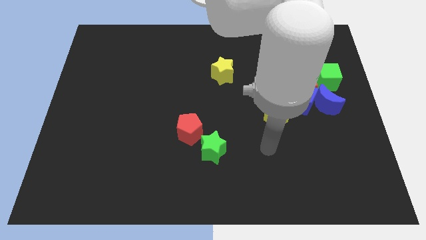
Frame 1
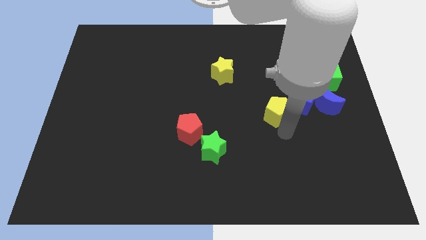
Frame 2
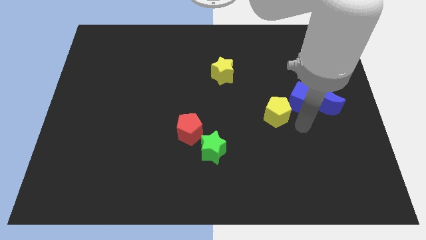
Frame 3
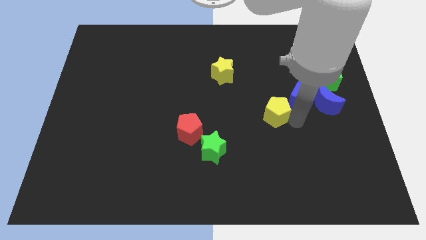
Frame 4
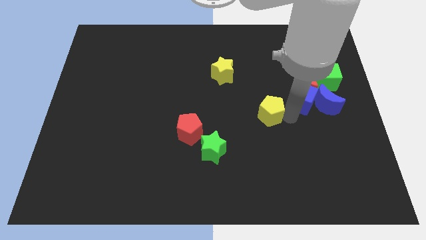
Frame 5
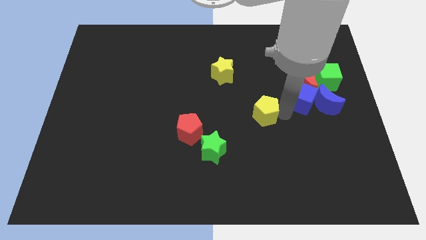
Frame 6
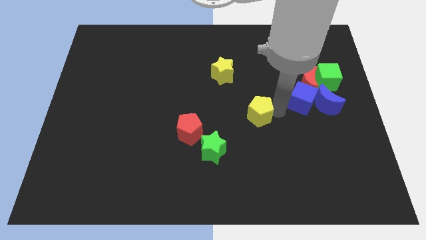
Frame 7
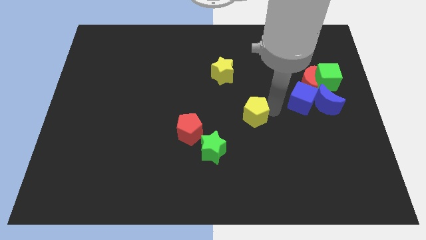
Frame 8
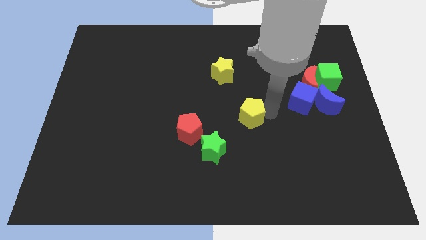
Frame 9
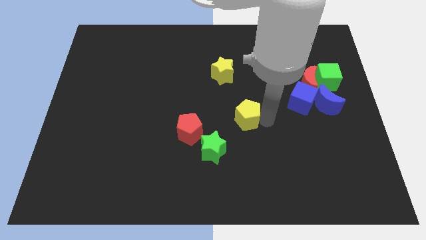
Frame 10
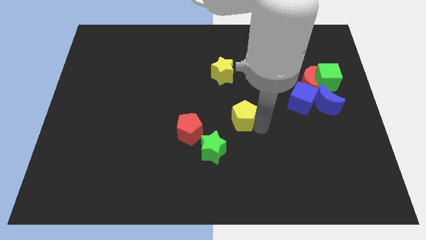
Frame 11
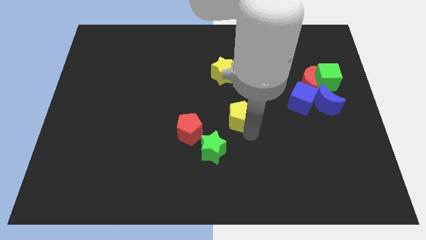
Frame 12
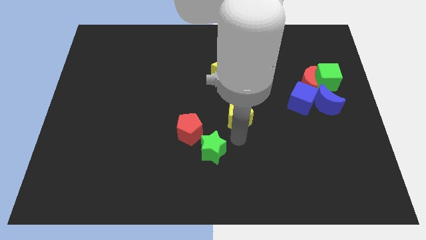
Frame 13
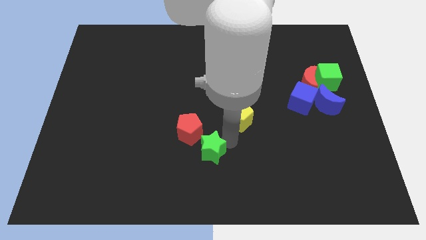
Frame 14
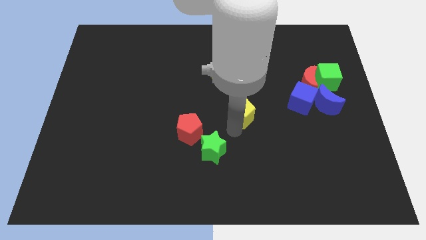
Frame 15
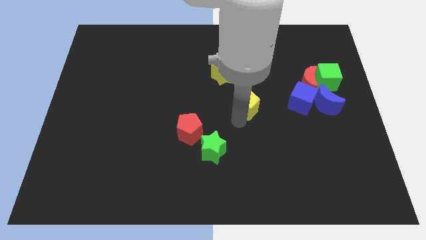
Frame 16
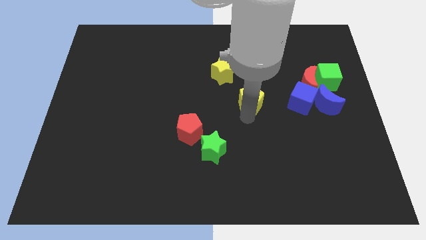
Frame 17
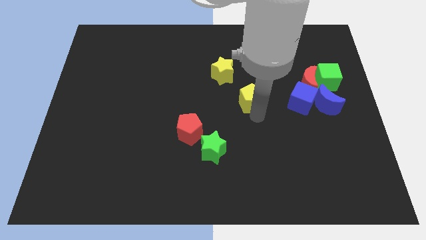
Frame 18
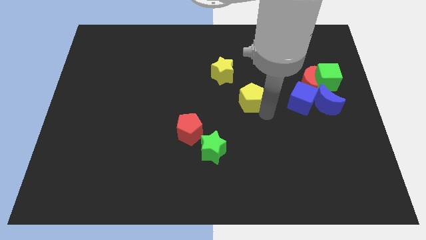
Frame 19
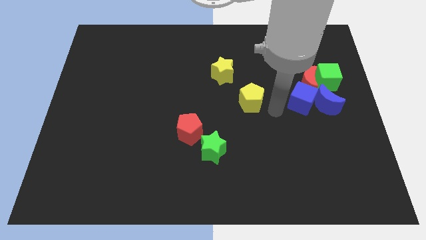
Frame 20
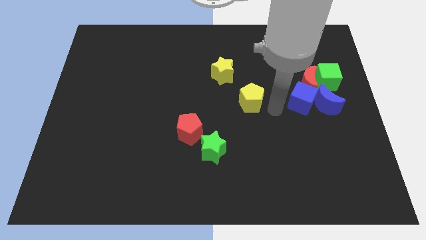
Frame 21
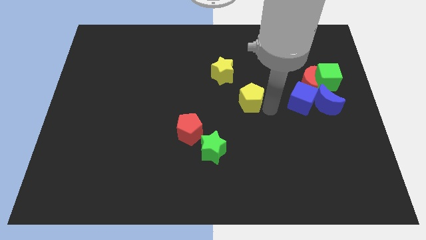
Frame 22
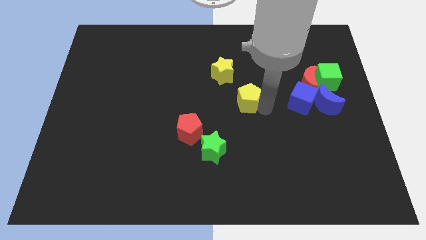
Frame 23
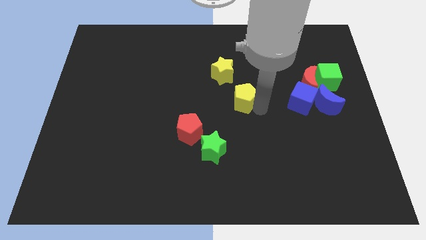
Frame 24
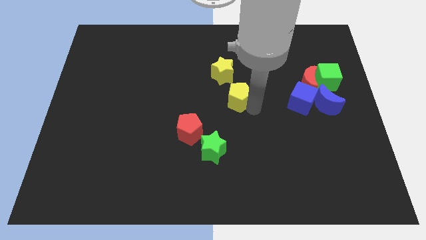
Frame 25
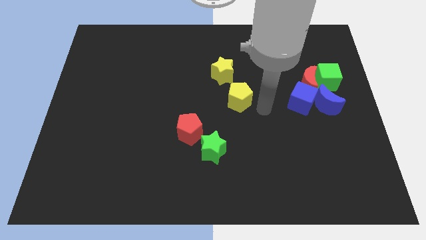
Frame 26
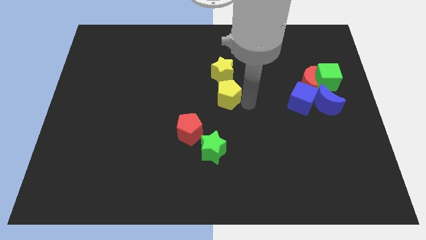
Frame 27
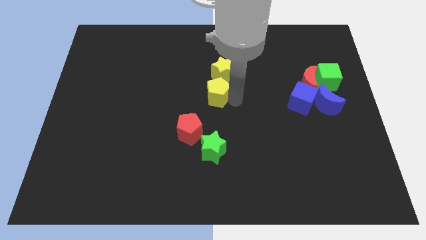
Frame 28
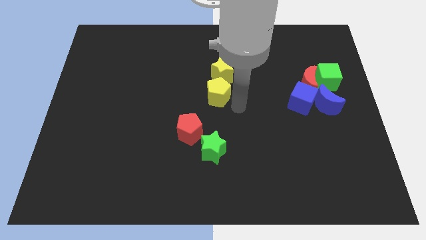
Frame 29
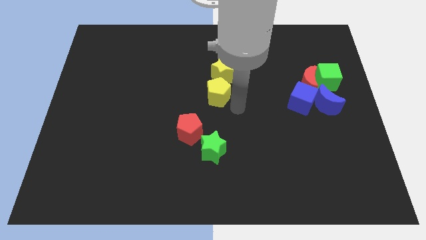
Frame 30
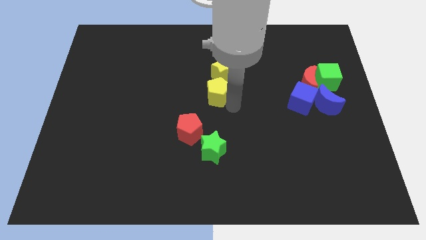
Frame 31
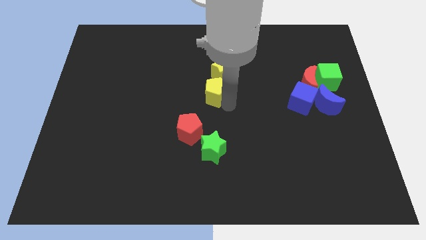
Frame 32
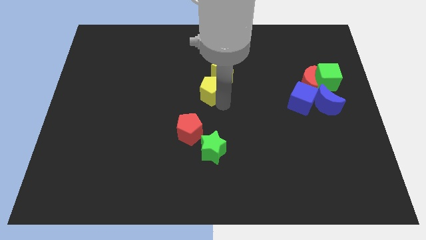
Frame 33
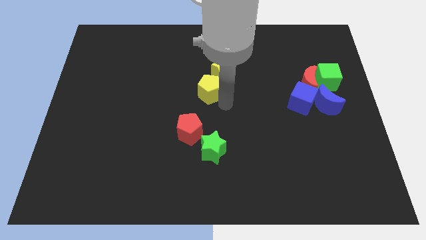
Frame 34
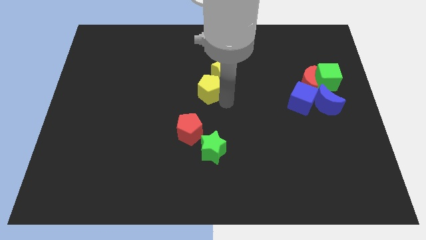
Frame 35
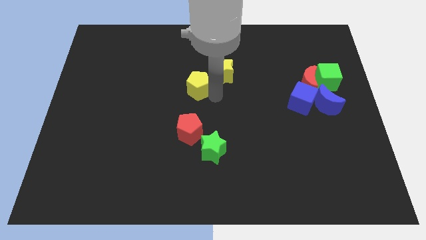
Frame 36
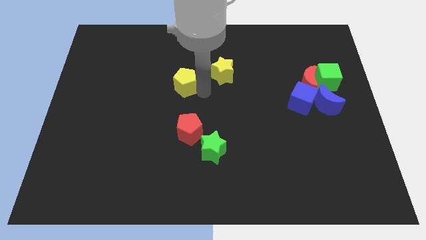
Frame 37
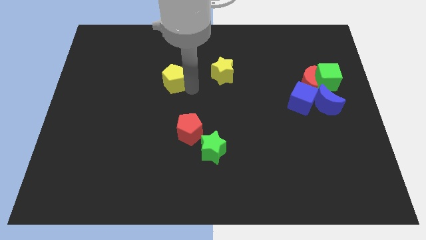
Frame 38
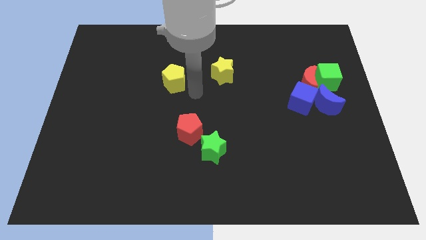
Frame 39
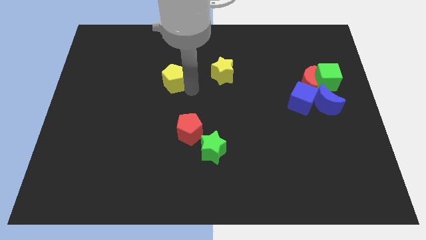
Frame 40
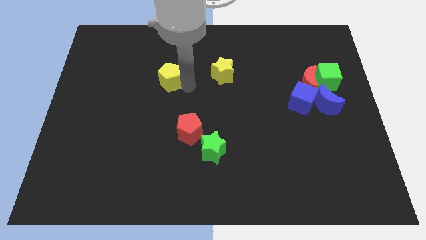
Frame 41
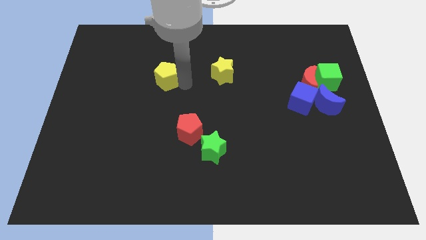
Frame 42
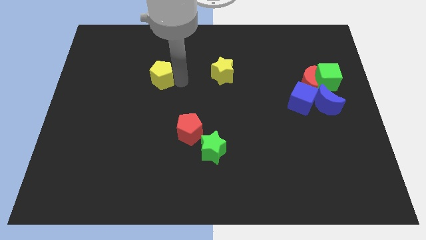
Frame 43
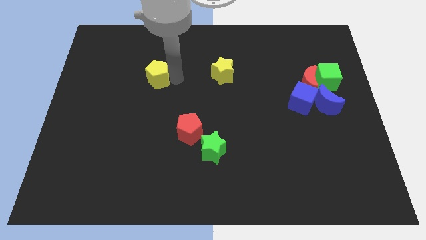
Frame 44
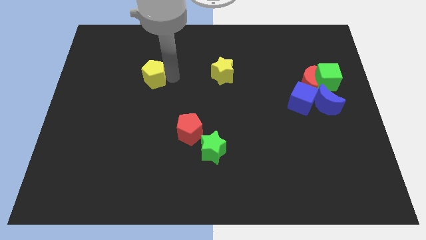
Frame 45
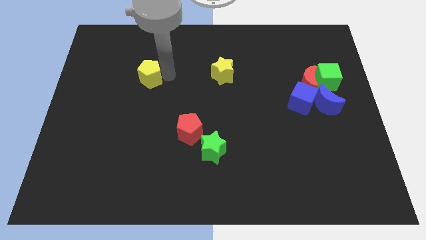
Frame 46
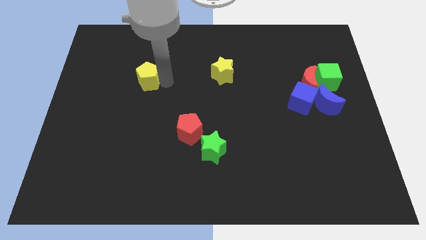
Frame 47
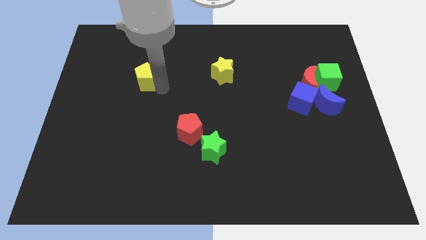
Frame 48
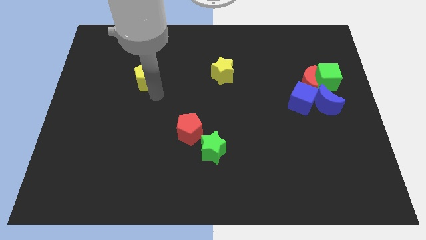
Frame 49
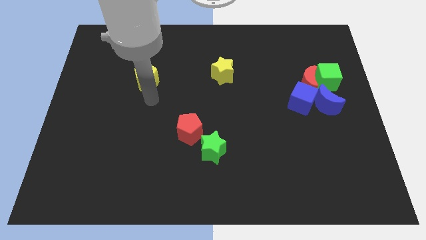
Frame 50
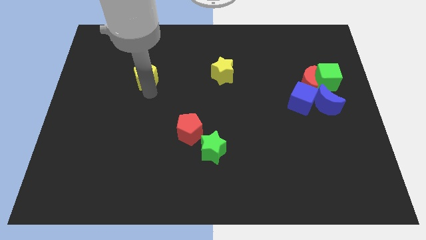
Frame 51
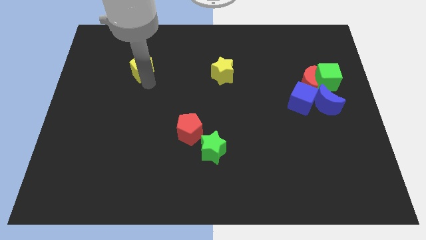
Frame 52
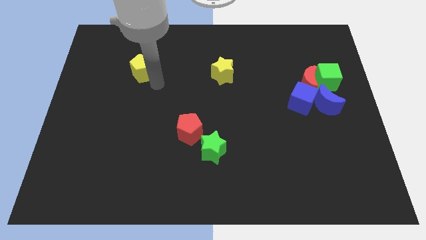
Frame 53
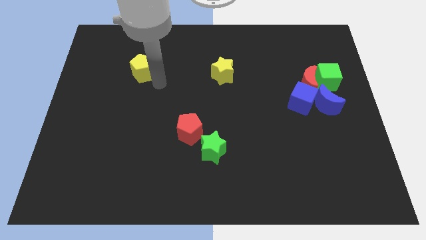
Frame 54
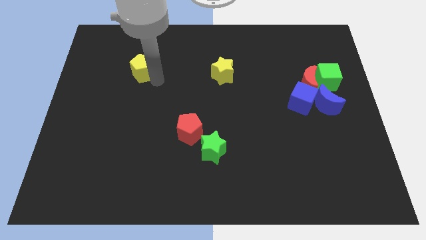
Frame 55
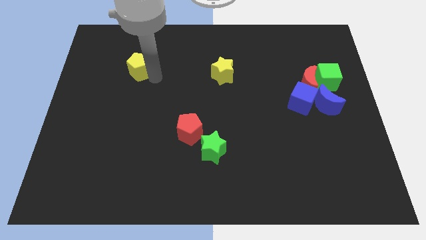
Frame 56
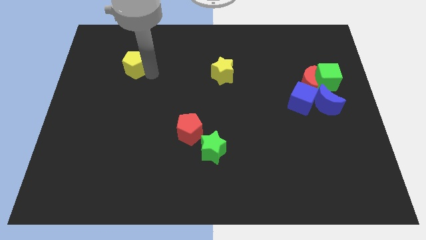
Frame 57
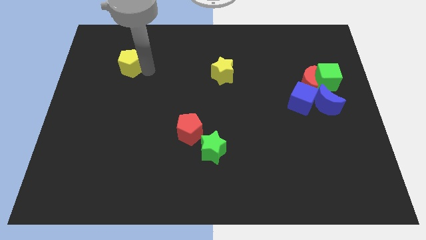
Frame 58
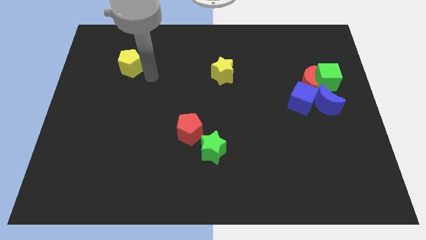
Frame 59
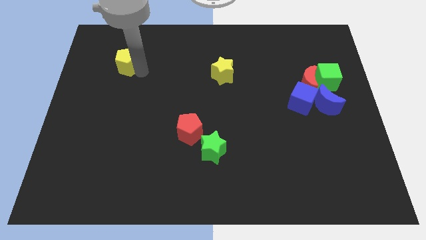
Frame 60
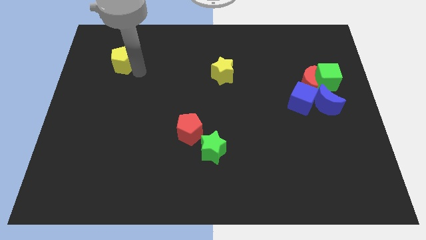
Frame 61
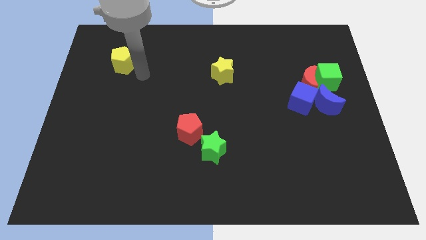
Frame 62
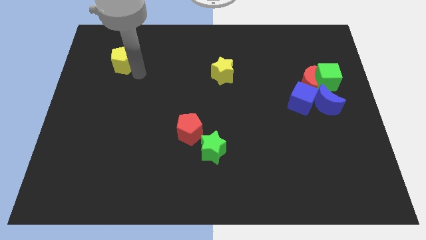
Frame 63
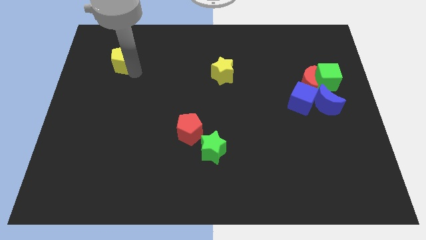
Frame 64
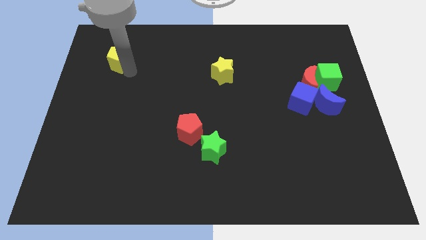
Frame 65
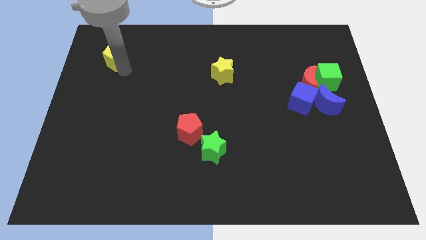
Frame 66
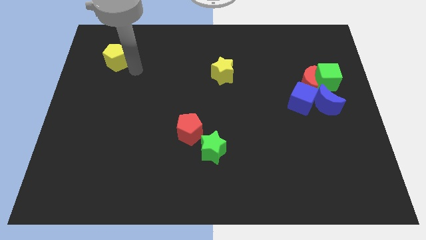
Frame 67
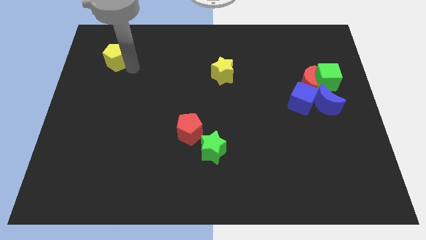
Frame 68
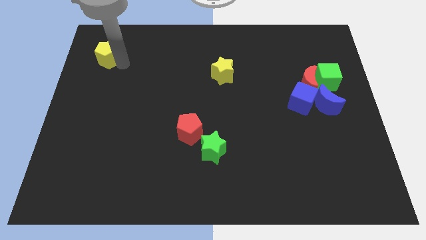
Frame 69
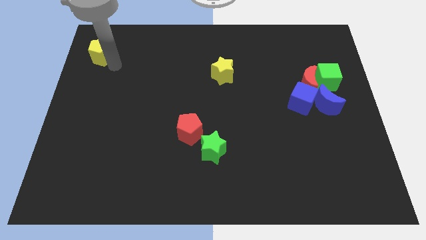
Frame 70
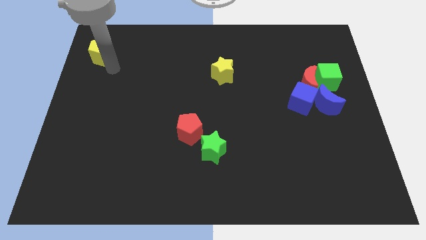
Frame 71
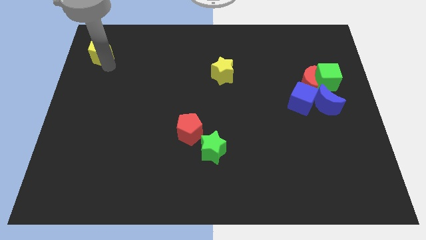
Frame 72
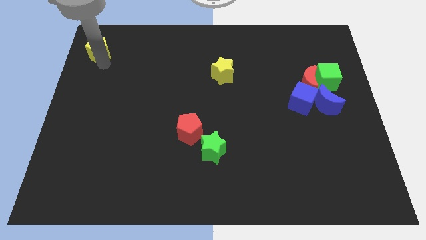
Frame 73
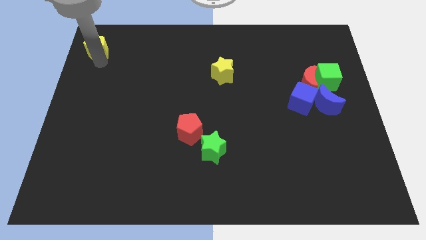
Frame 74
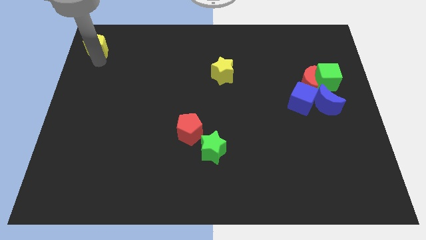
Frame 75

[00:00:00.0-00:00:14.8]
slide the yellow pentagon to the top left corner
